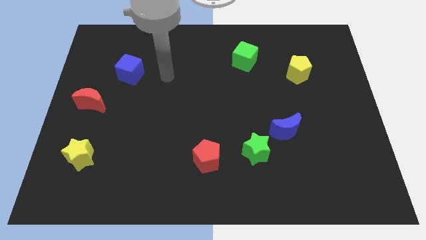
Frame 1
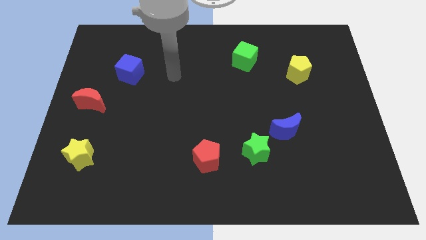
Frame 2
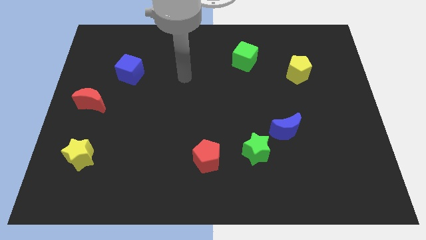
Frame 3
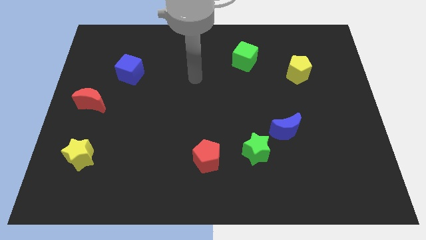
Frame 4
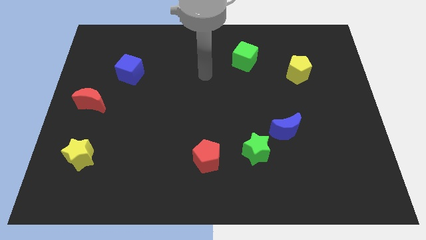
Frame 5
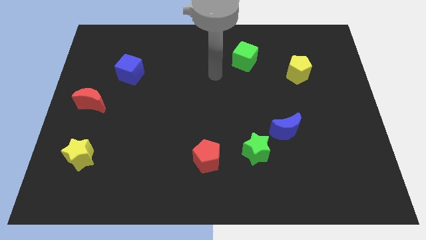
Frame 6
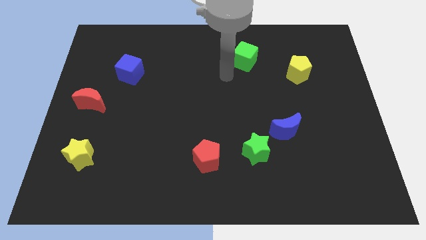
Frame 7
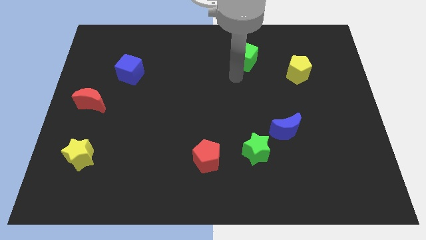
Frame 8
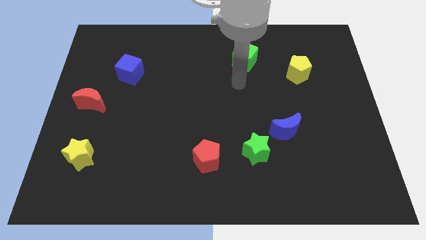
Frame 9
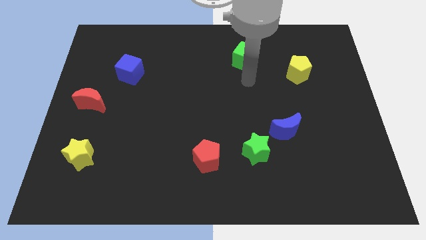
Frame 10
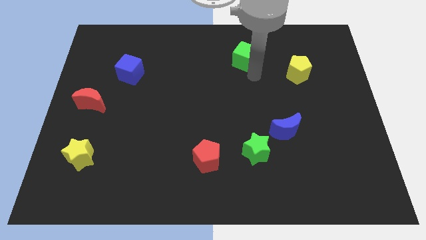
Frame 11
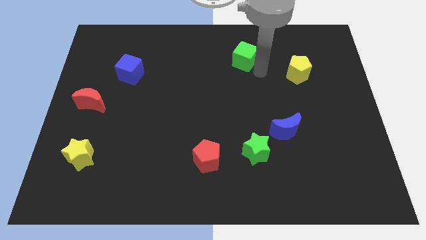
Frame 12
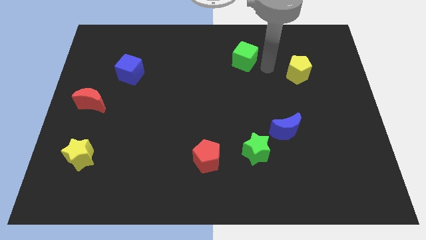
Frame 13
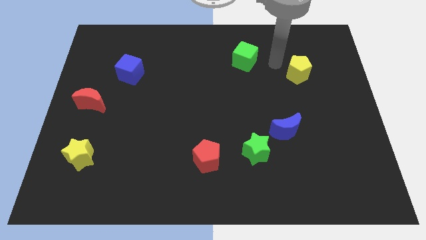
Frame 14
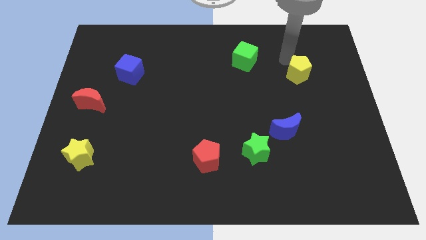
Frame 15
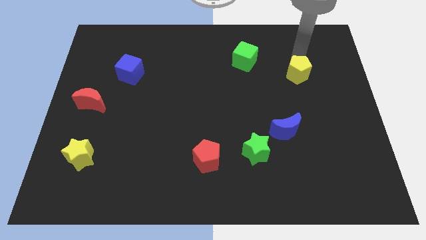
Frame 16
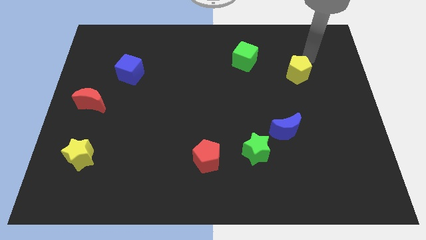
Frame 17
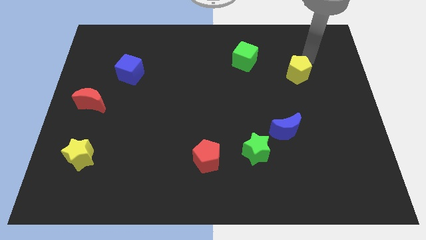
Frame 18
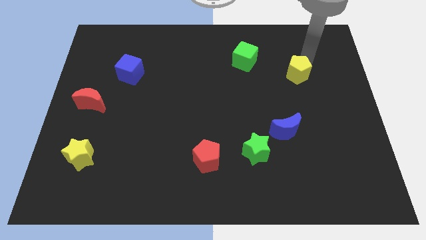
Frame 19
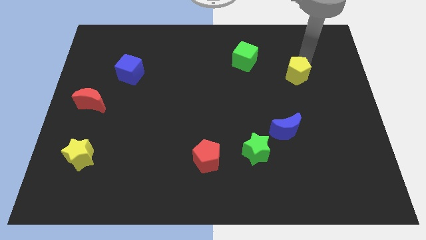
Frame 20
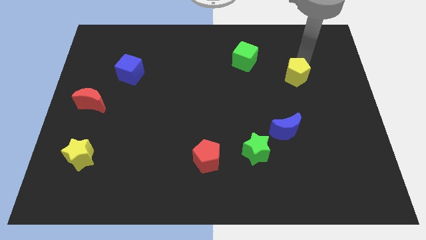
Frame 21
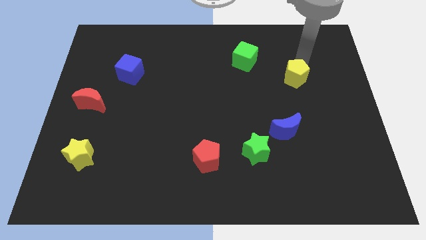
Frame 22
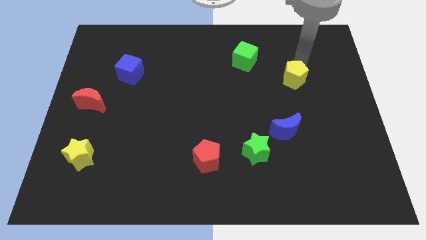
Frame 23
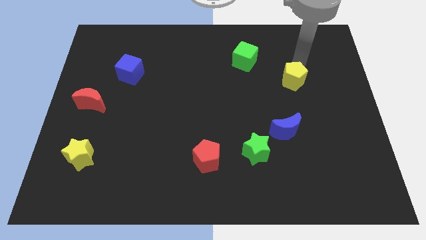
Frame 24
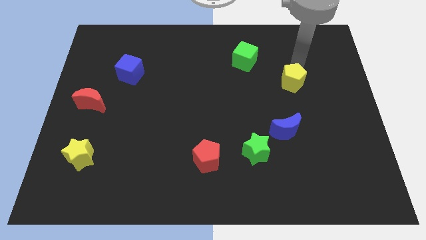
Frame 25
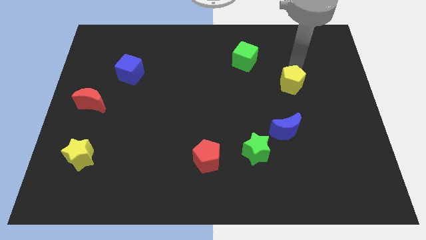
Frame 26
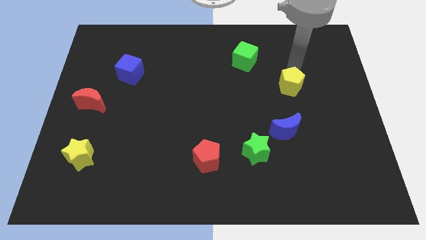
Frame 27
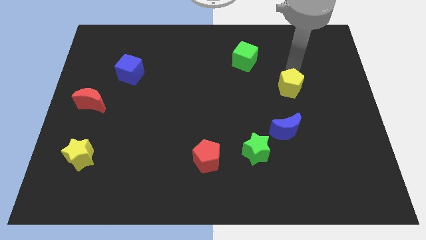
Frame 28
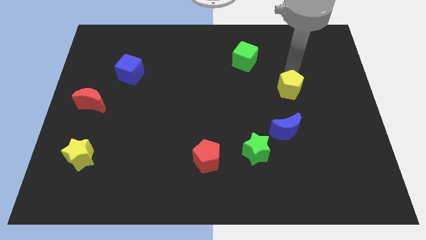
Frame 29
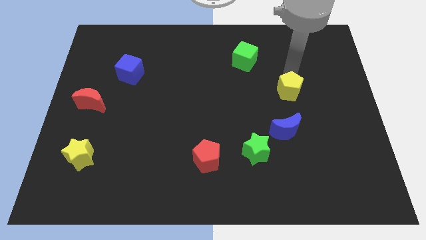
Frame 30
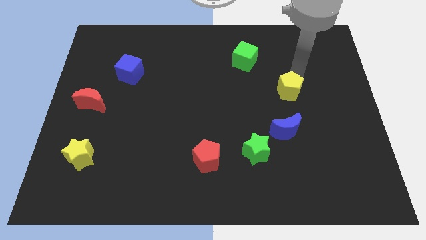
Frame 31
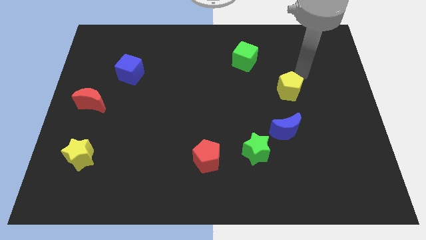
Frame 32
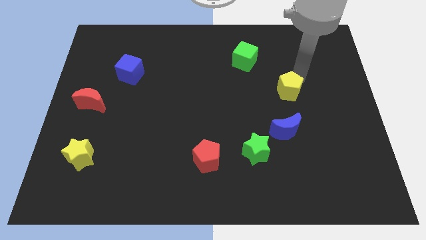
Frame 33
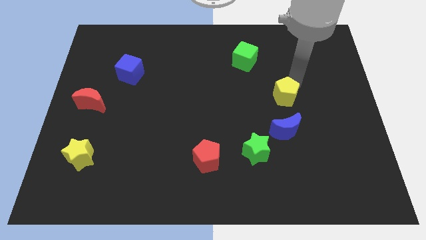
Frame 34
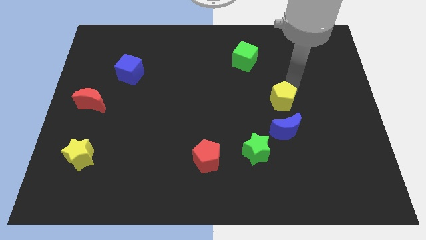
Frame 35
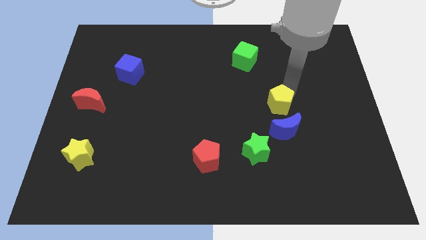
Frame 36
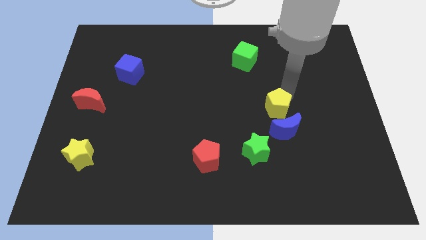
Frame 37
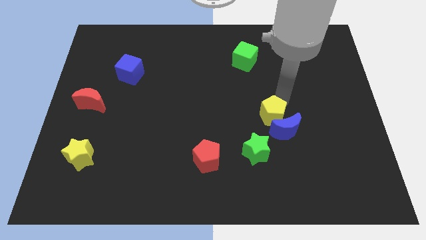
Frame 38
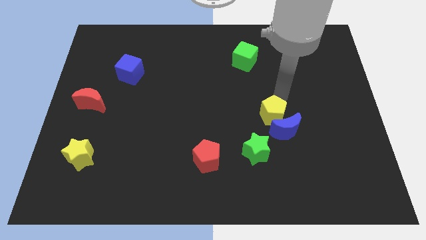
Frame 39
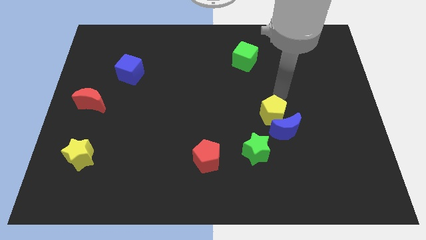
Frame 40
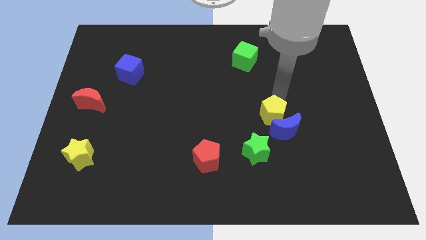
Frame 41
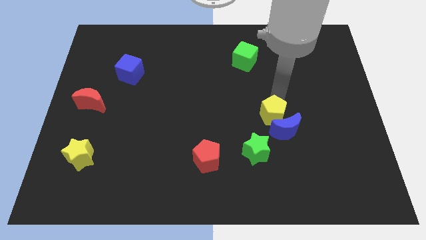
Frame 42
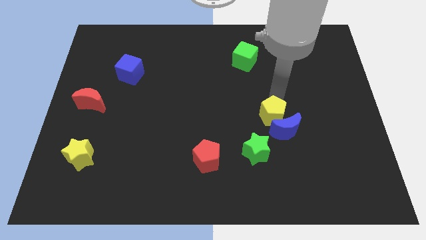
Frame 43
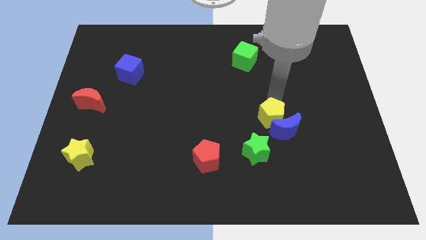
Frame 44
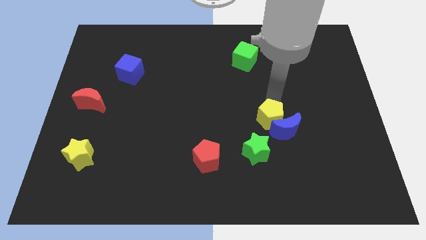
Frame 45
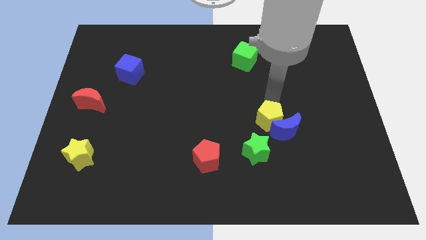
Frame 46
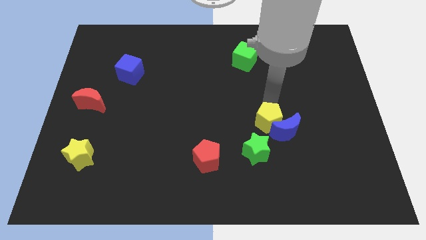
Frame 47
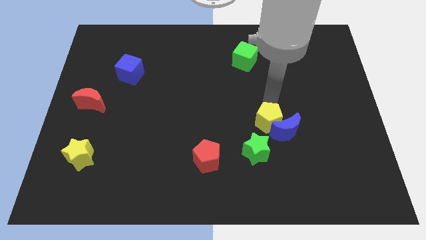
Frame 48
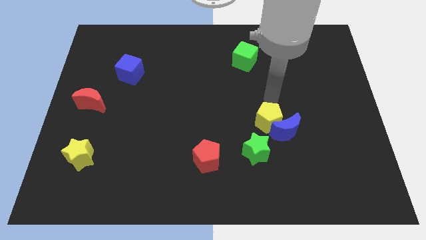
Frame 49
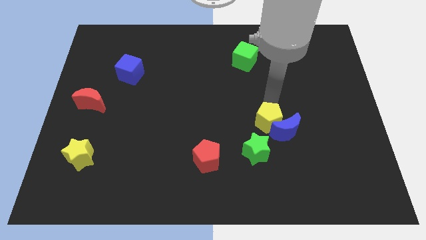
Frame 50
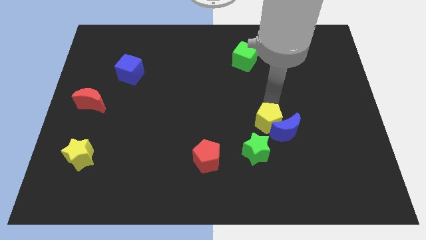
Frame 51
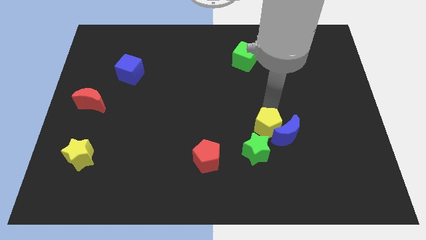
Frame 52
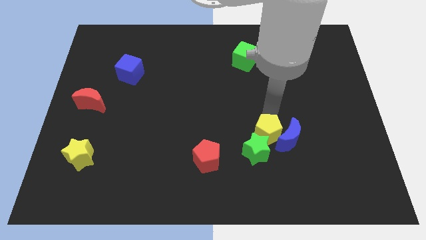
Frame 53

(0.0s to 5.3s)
slide the yellow pentagon close to the green star

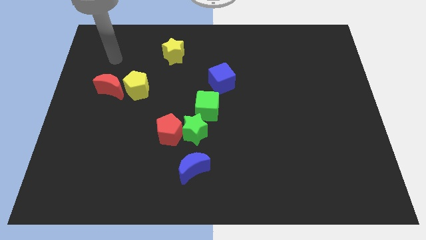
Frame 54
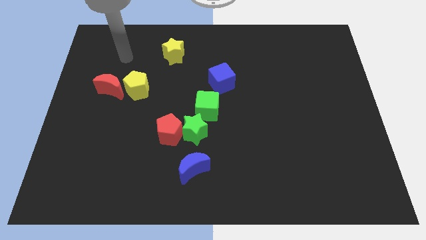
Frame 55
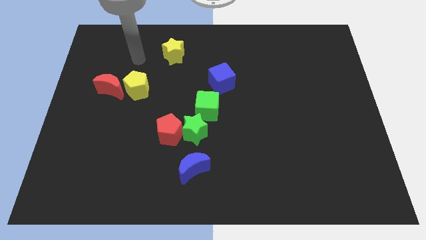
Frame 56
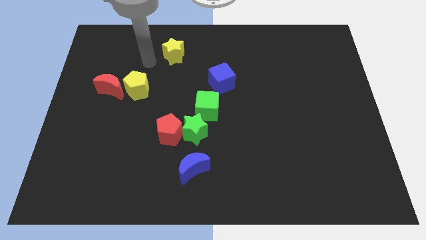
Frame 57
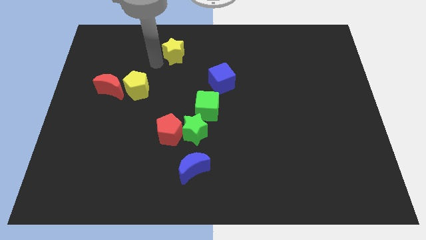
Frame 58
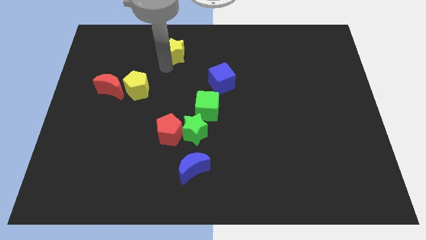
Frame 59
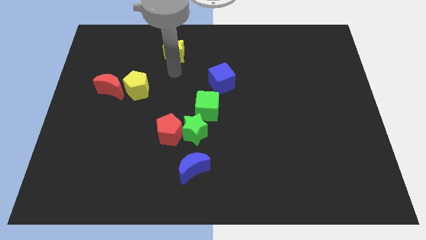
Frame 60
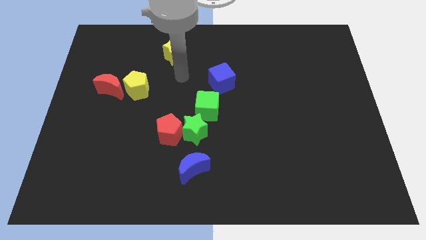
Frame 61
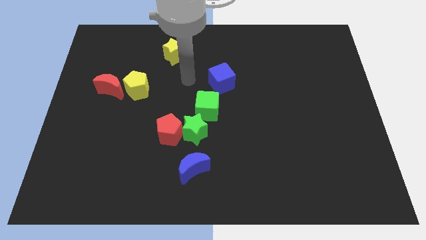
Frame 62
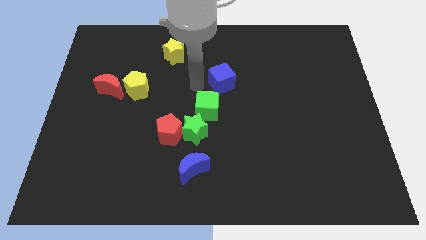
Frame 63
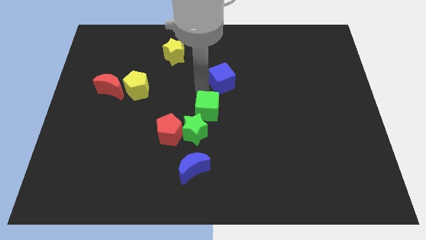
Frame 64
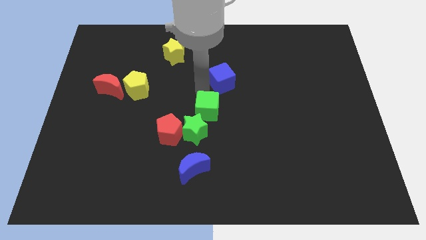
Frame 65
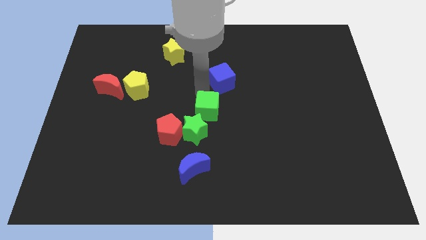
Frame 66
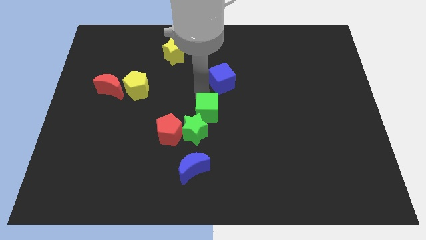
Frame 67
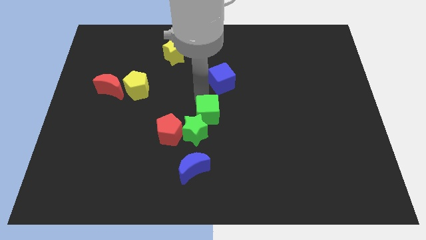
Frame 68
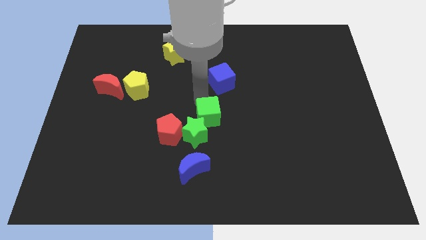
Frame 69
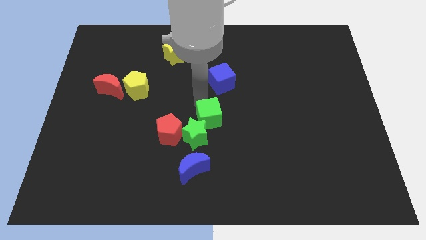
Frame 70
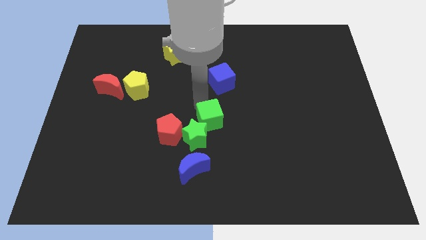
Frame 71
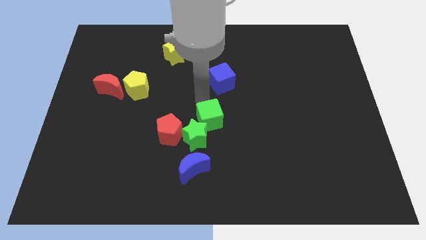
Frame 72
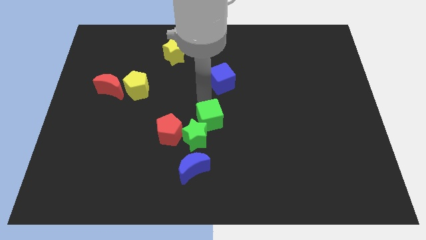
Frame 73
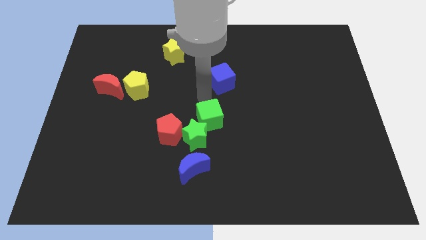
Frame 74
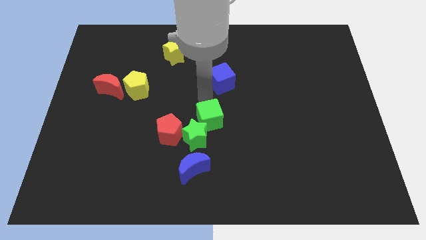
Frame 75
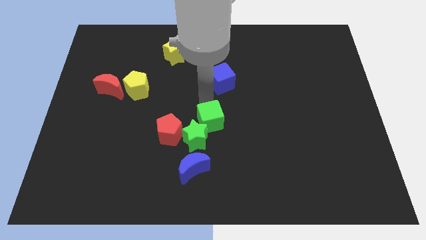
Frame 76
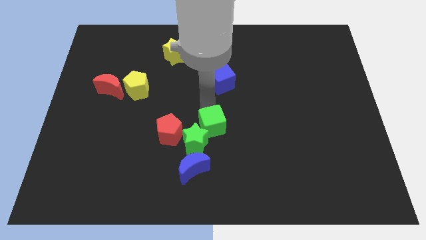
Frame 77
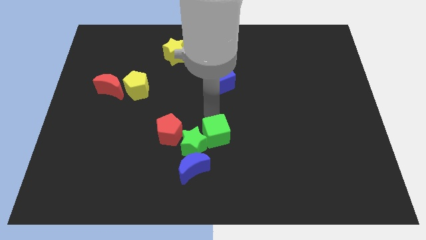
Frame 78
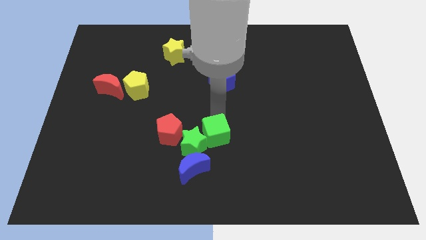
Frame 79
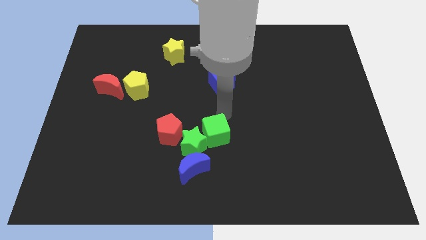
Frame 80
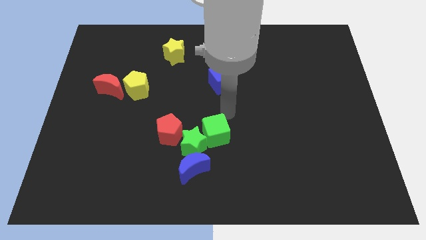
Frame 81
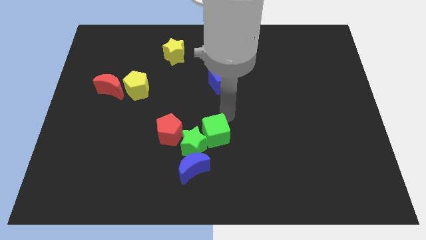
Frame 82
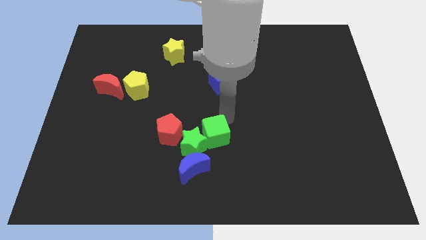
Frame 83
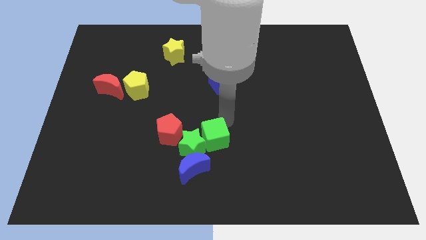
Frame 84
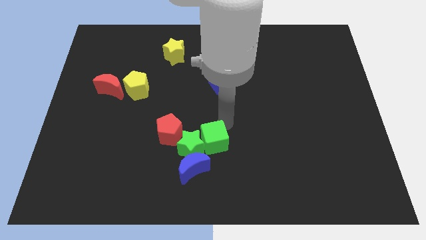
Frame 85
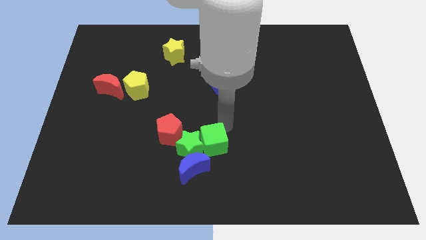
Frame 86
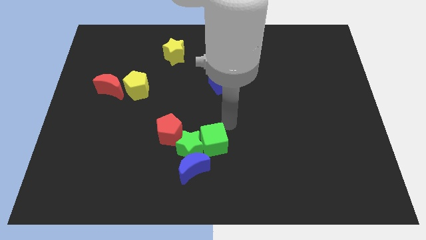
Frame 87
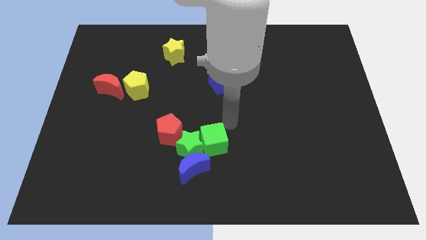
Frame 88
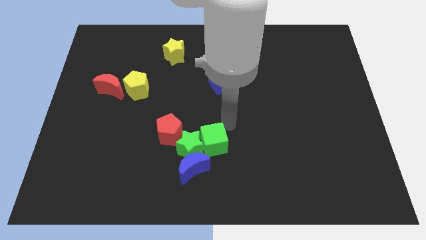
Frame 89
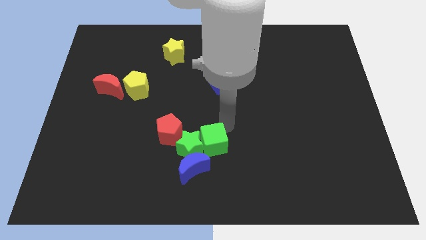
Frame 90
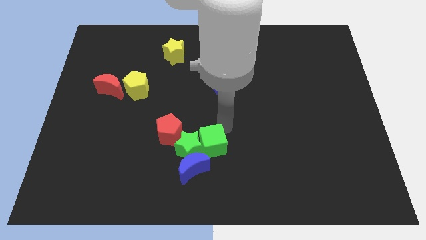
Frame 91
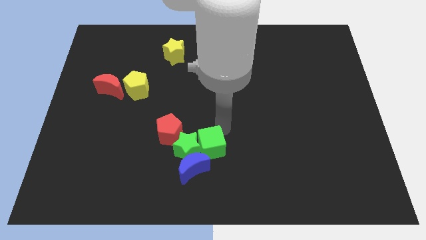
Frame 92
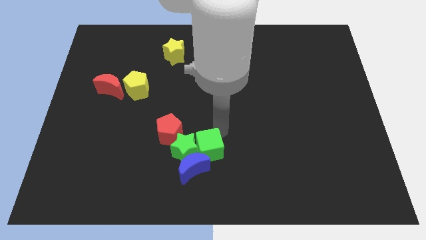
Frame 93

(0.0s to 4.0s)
push the green cube to the blue moon
